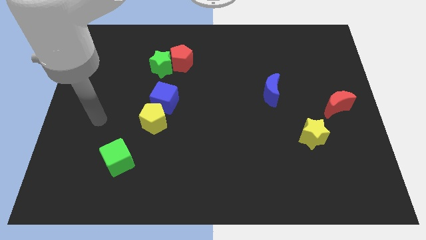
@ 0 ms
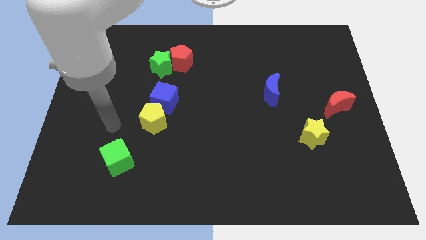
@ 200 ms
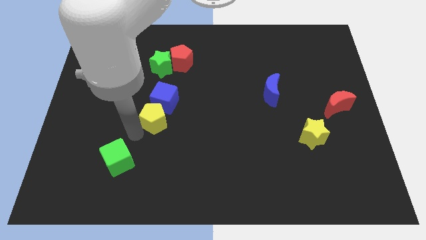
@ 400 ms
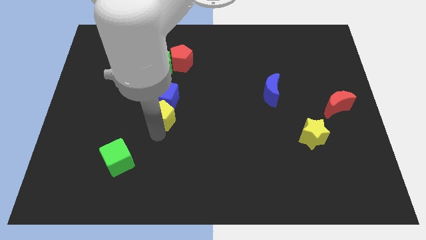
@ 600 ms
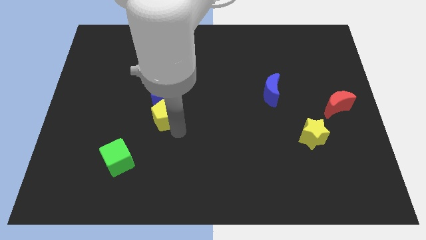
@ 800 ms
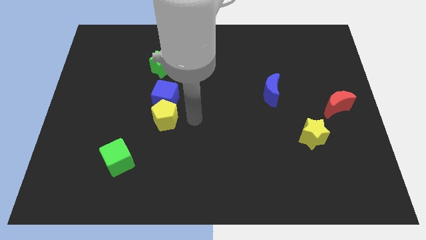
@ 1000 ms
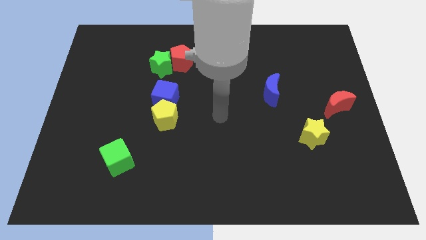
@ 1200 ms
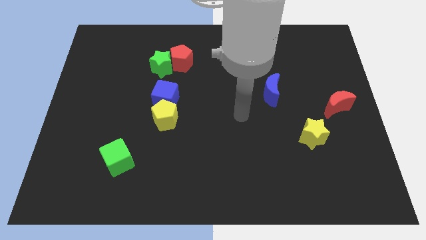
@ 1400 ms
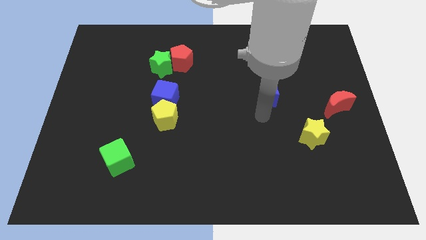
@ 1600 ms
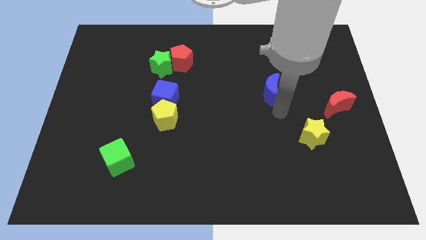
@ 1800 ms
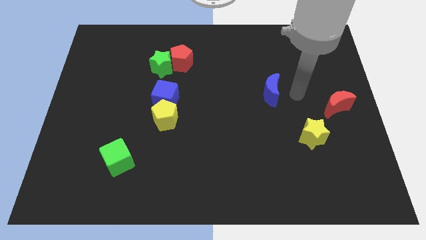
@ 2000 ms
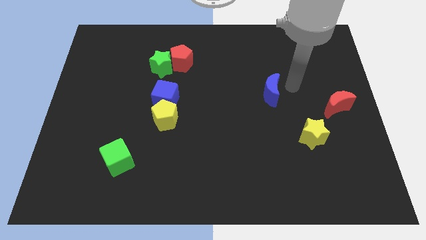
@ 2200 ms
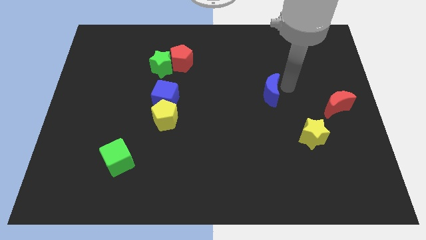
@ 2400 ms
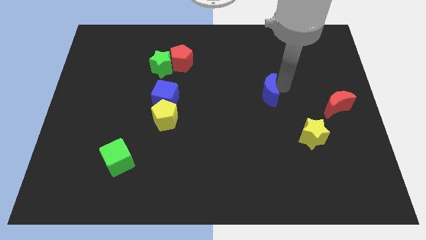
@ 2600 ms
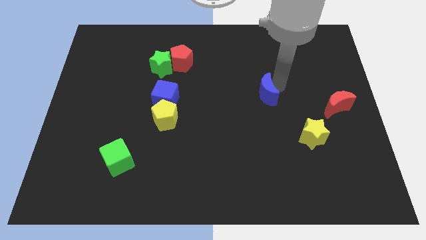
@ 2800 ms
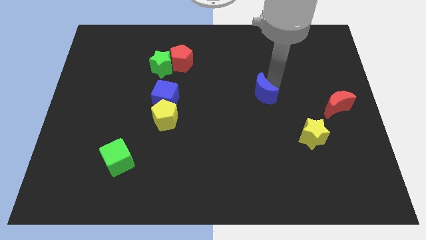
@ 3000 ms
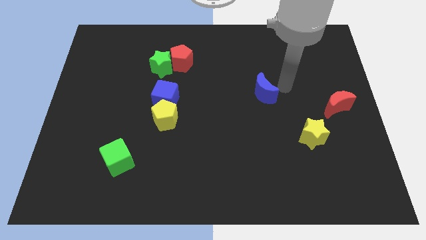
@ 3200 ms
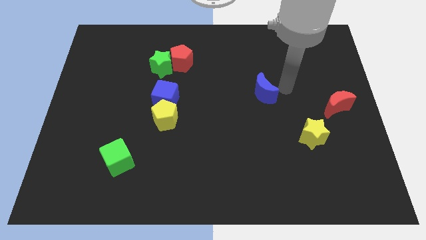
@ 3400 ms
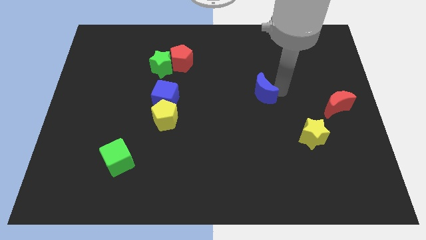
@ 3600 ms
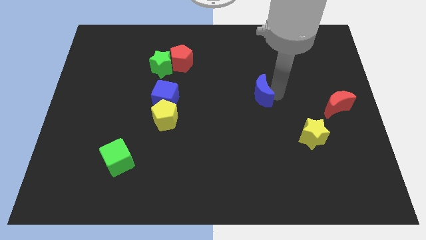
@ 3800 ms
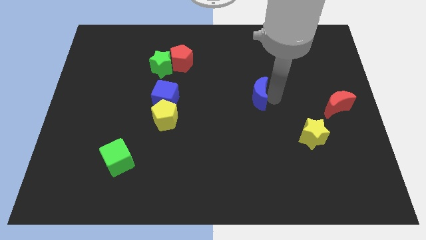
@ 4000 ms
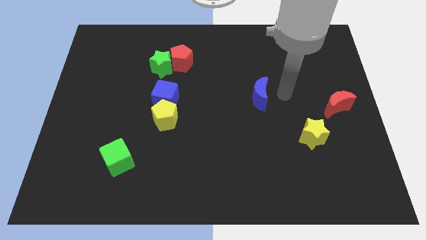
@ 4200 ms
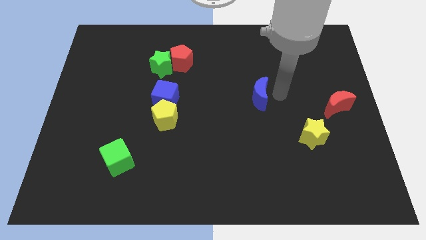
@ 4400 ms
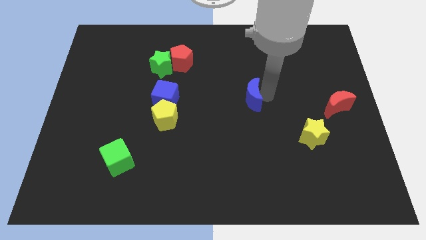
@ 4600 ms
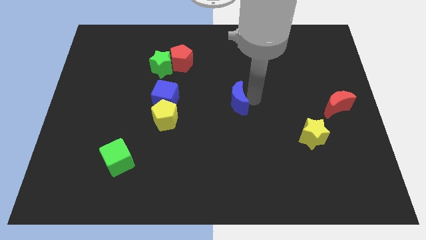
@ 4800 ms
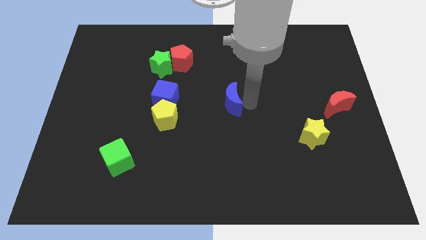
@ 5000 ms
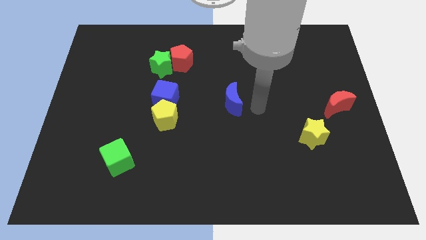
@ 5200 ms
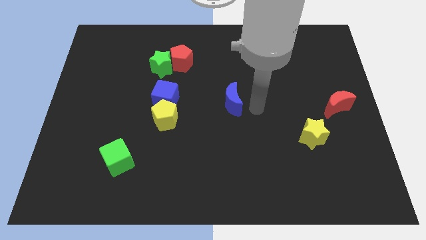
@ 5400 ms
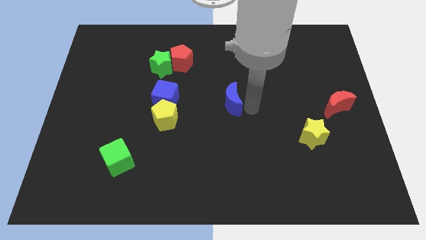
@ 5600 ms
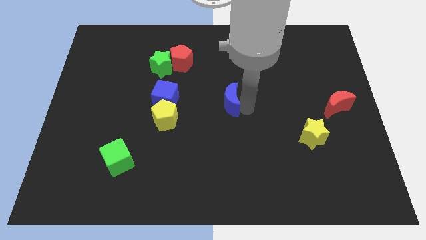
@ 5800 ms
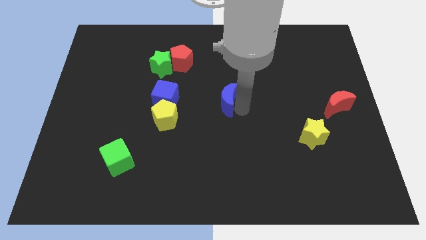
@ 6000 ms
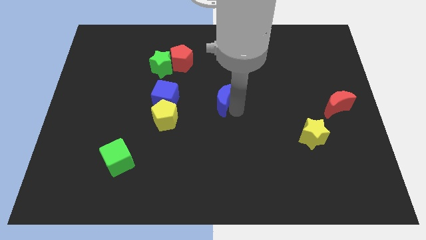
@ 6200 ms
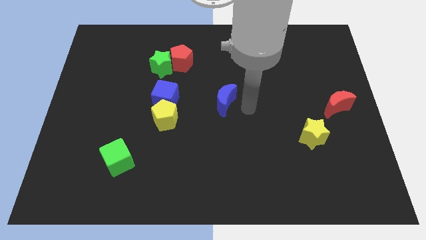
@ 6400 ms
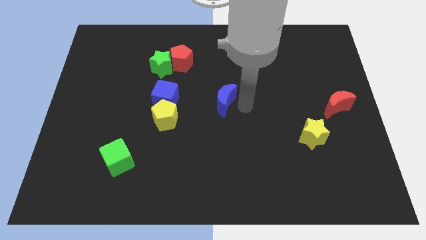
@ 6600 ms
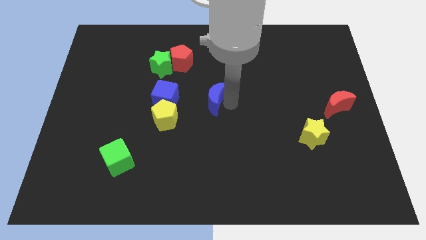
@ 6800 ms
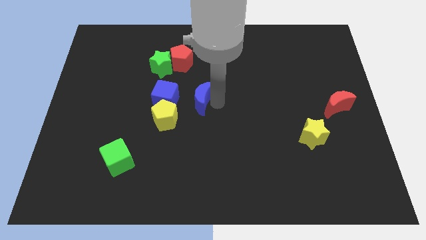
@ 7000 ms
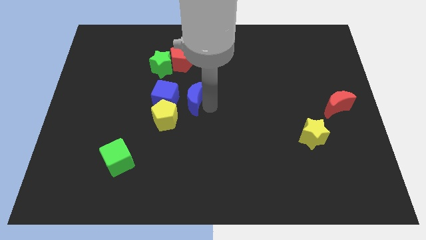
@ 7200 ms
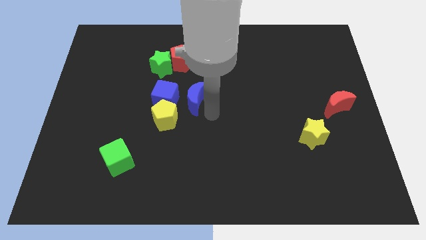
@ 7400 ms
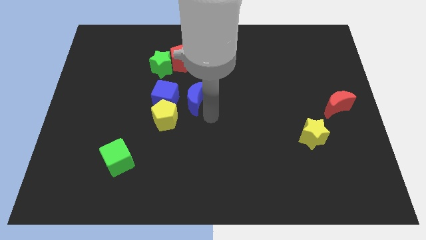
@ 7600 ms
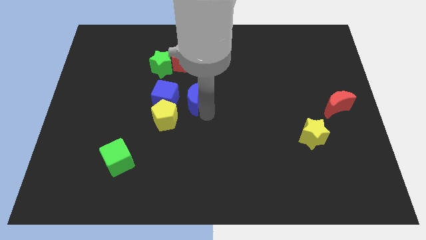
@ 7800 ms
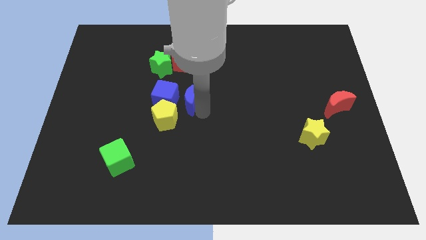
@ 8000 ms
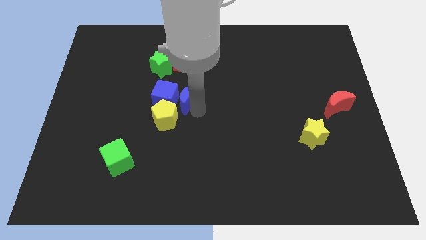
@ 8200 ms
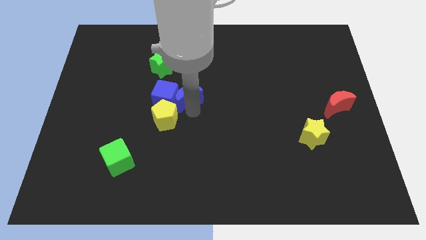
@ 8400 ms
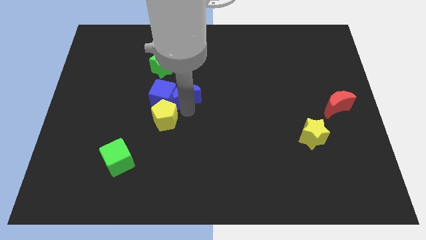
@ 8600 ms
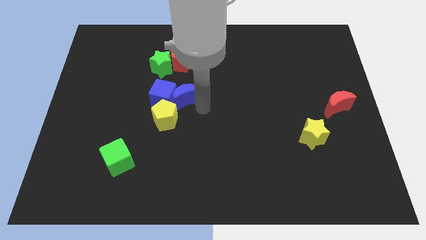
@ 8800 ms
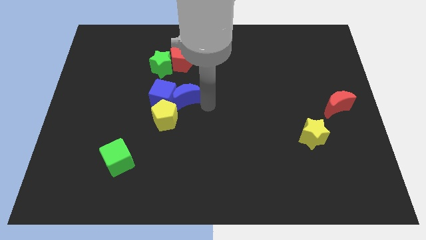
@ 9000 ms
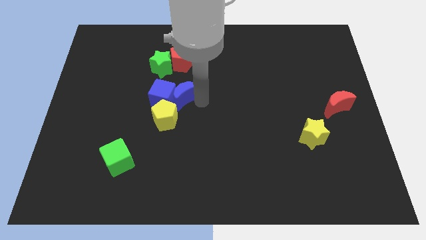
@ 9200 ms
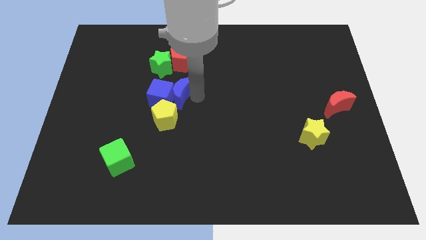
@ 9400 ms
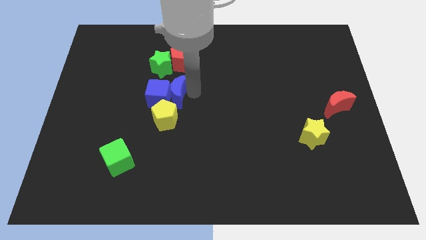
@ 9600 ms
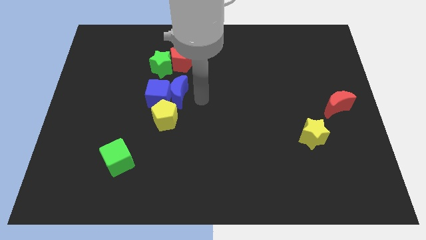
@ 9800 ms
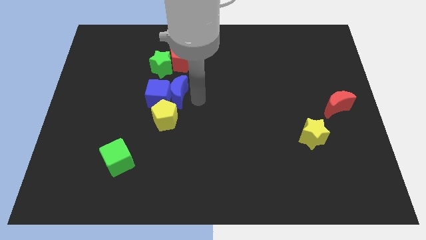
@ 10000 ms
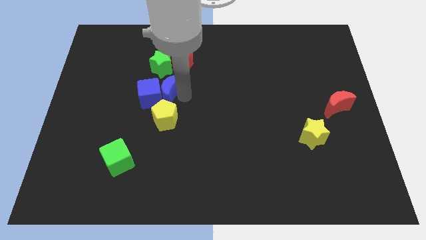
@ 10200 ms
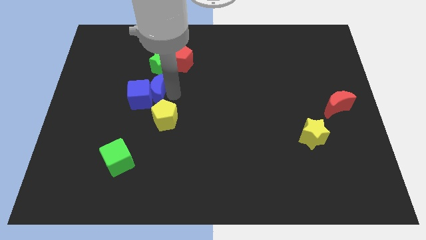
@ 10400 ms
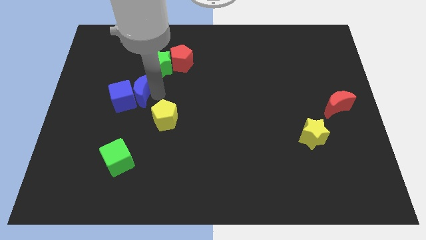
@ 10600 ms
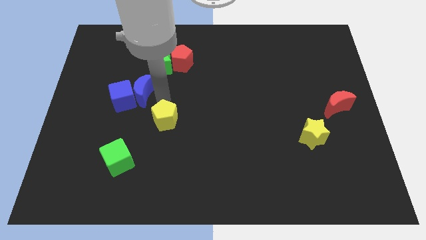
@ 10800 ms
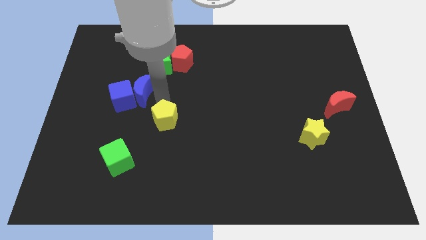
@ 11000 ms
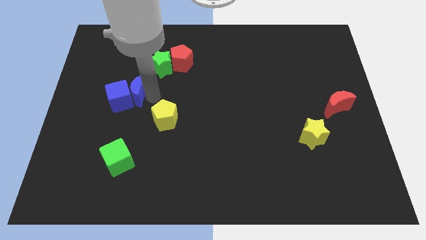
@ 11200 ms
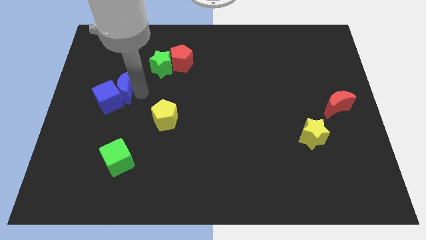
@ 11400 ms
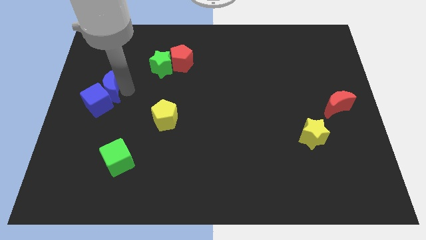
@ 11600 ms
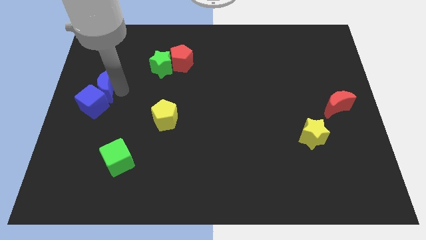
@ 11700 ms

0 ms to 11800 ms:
slide the blue moon to the left side

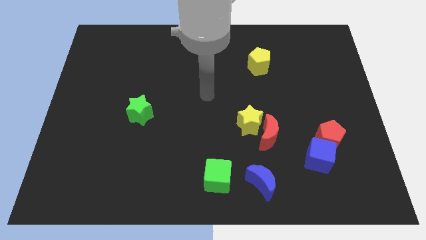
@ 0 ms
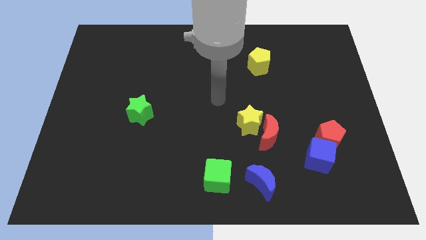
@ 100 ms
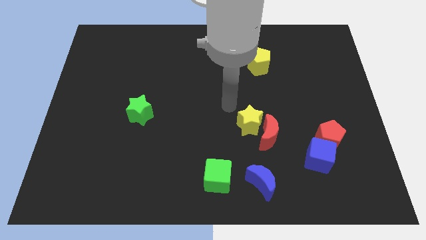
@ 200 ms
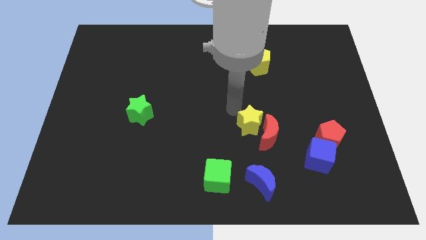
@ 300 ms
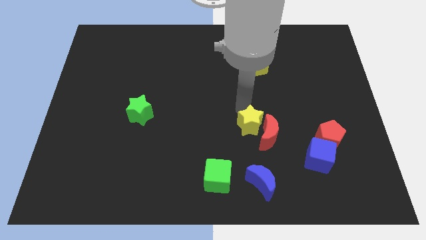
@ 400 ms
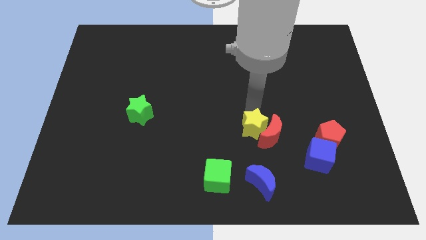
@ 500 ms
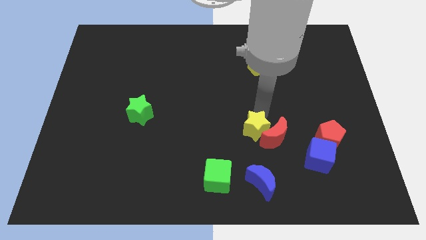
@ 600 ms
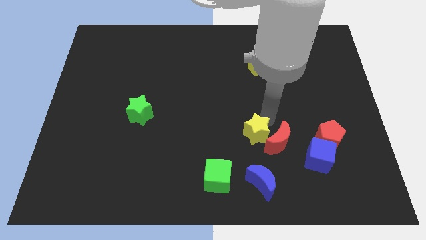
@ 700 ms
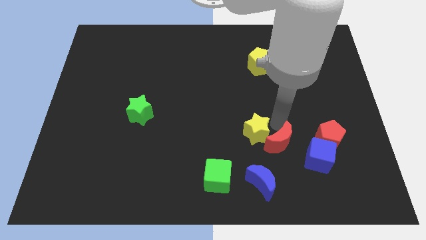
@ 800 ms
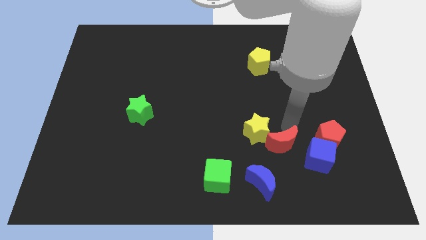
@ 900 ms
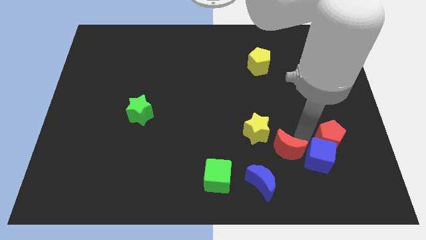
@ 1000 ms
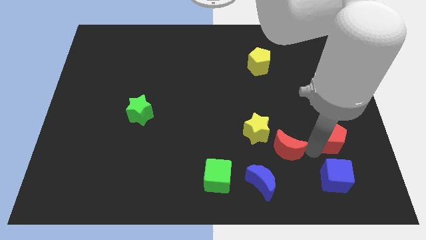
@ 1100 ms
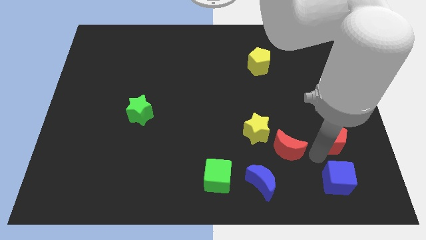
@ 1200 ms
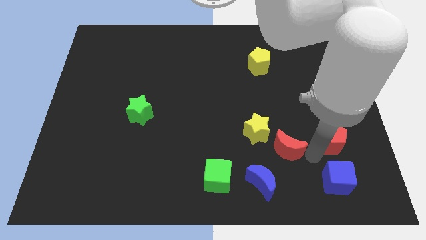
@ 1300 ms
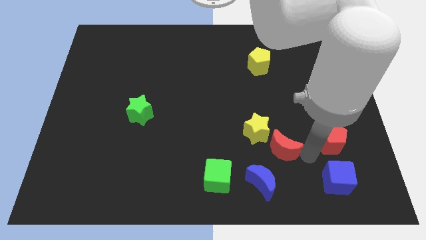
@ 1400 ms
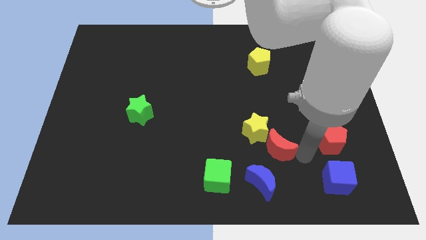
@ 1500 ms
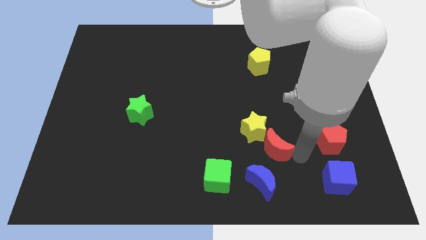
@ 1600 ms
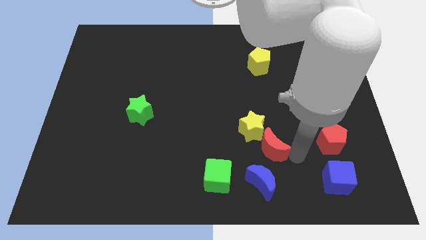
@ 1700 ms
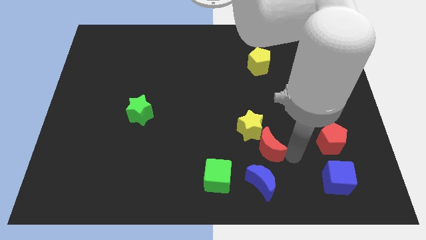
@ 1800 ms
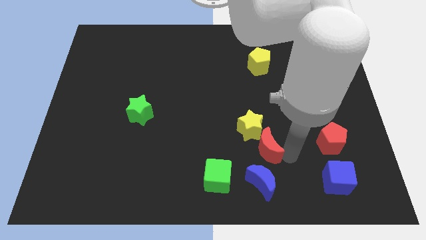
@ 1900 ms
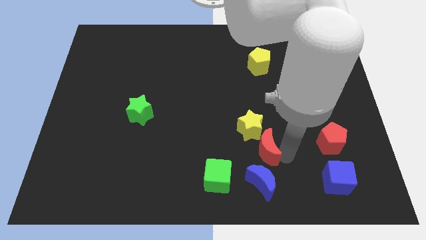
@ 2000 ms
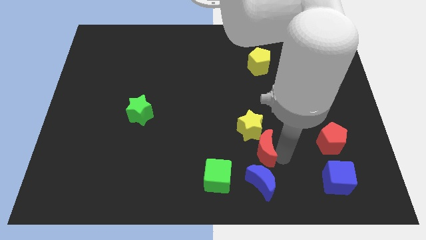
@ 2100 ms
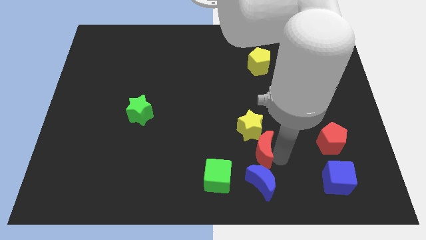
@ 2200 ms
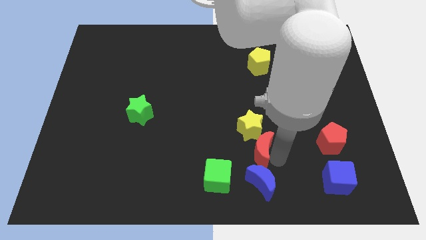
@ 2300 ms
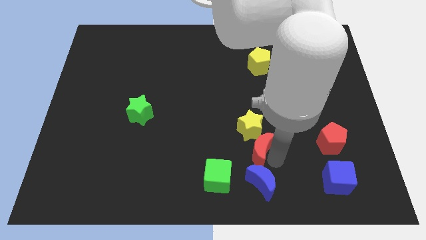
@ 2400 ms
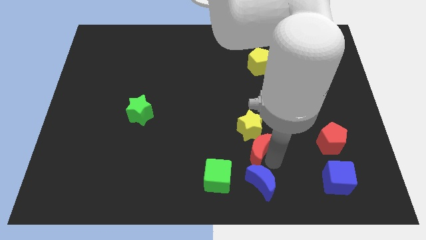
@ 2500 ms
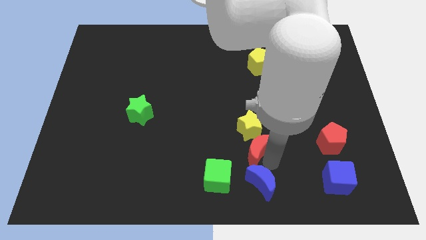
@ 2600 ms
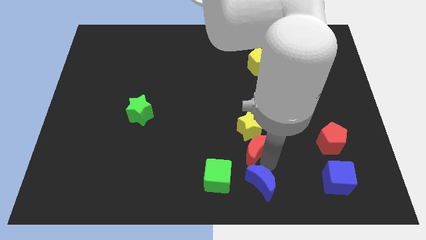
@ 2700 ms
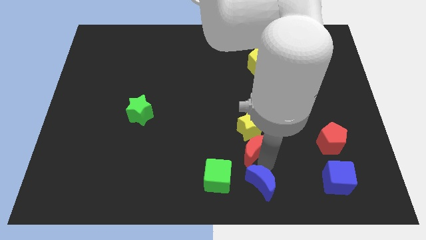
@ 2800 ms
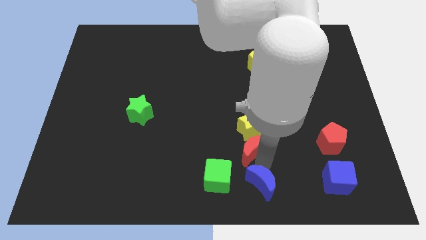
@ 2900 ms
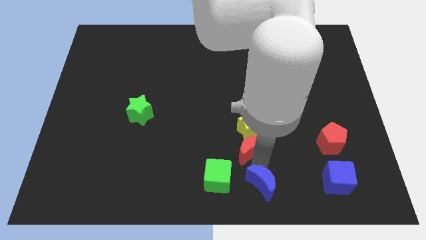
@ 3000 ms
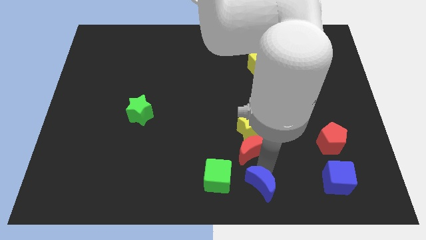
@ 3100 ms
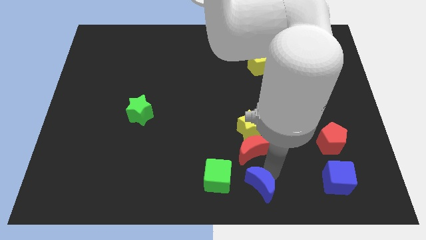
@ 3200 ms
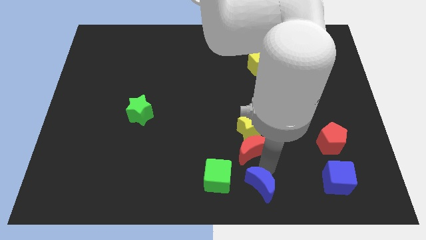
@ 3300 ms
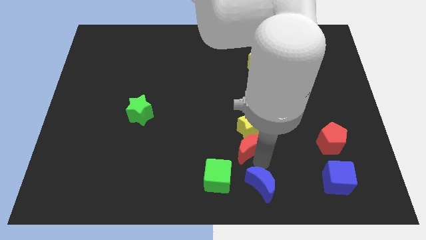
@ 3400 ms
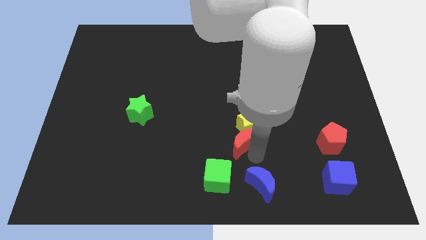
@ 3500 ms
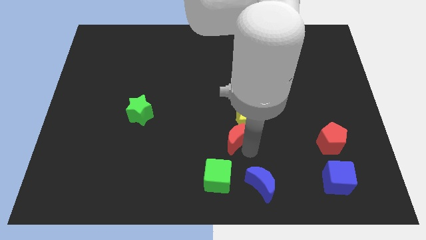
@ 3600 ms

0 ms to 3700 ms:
move the red moon to the middle of the board
